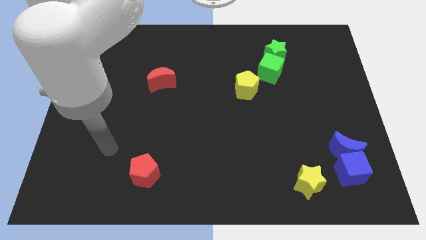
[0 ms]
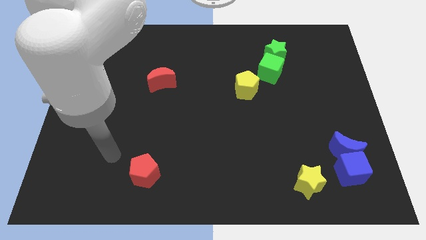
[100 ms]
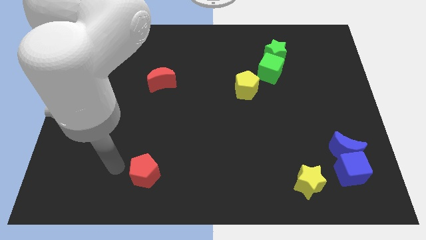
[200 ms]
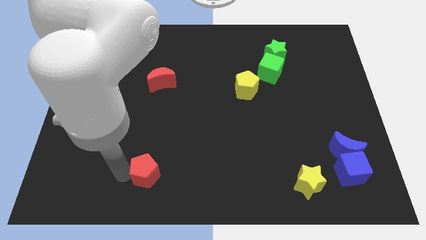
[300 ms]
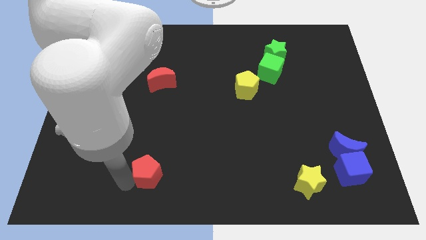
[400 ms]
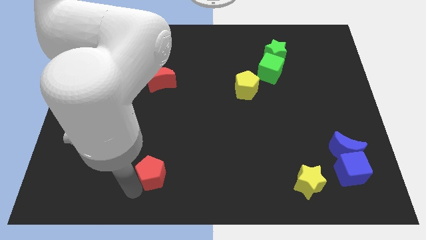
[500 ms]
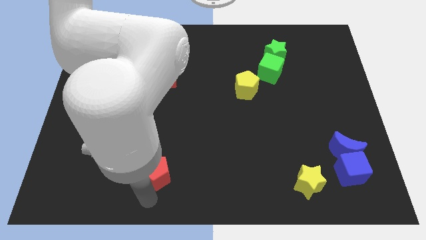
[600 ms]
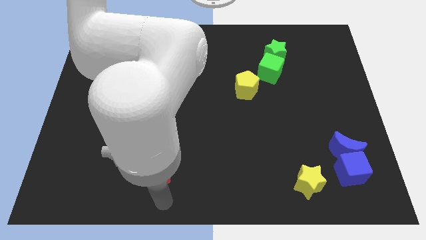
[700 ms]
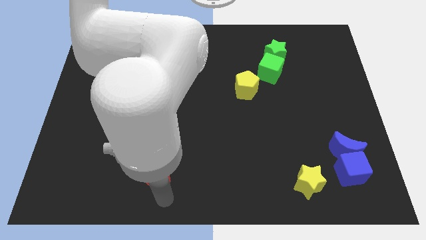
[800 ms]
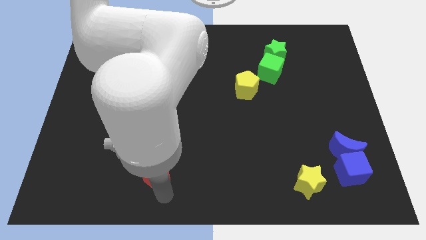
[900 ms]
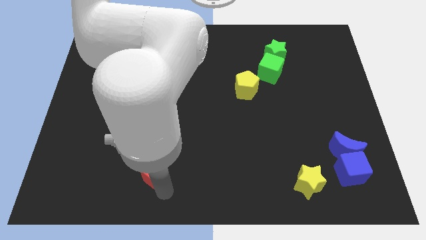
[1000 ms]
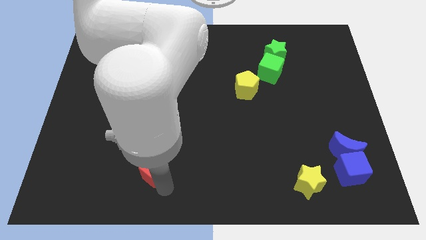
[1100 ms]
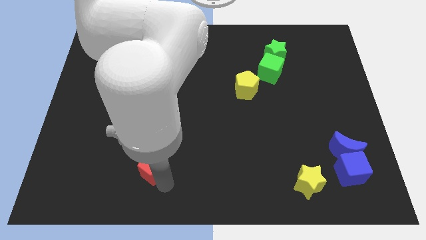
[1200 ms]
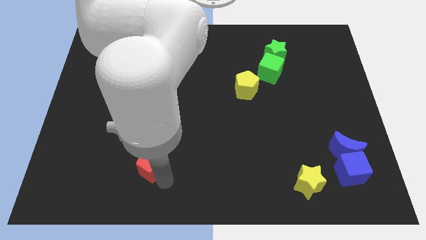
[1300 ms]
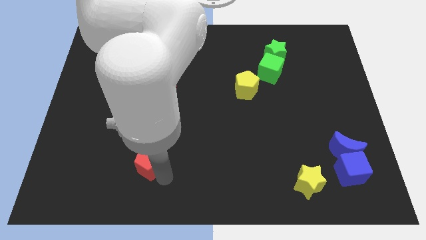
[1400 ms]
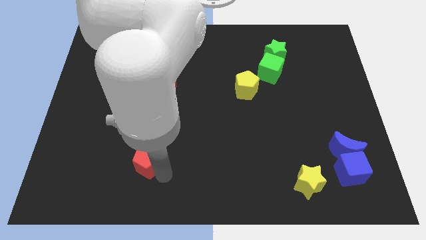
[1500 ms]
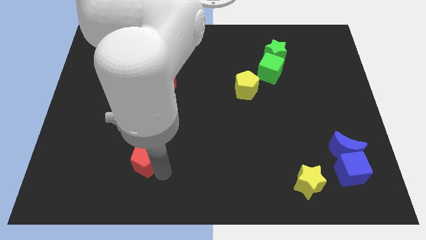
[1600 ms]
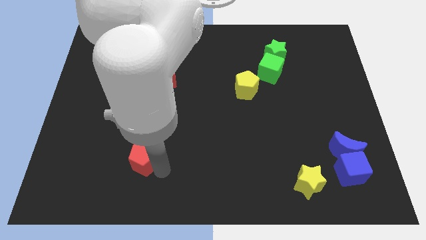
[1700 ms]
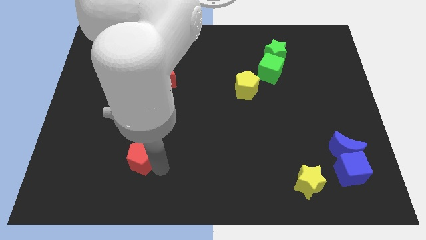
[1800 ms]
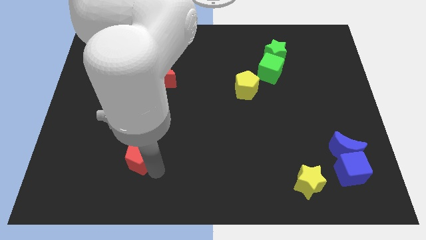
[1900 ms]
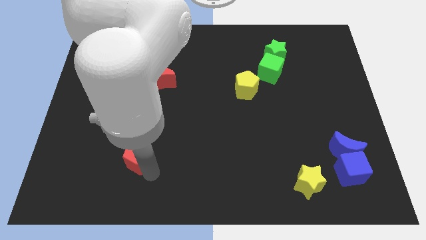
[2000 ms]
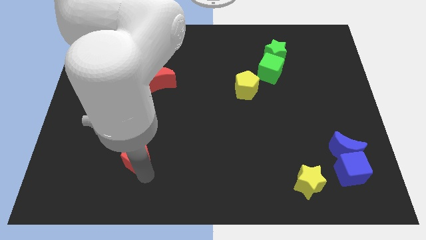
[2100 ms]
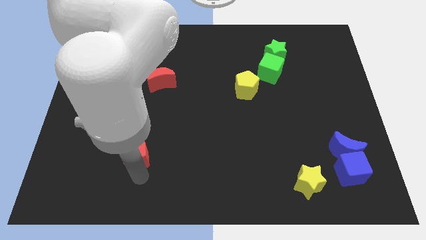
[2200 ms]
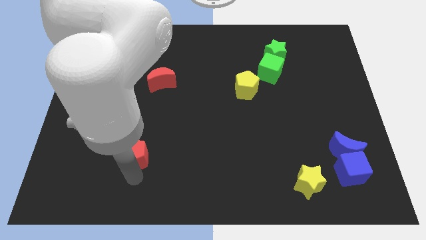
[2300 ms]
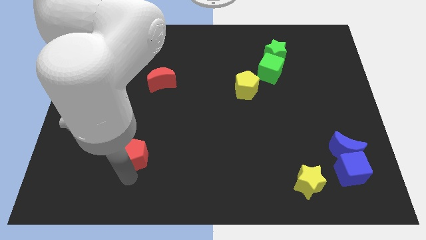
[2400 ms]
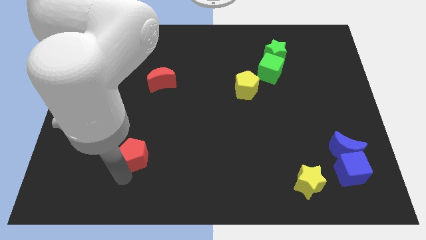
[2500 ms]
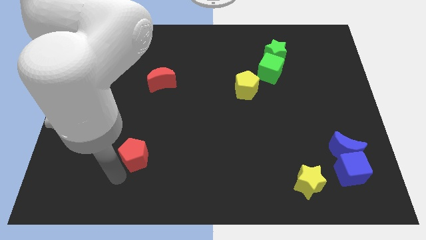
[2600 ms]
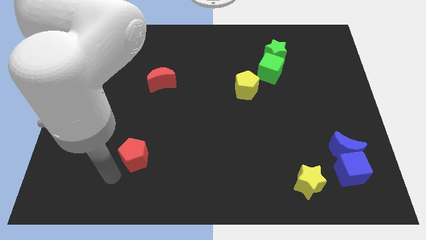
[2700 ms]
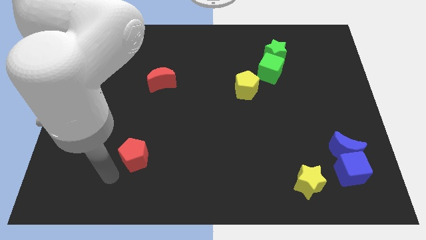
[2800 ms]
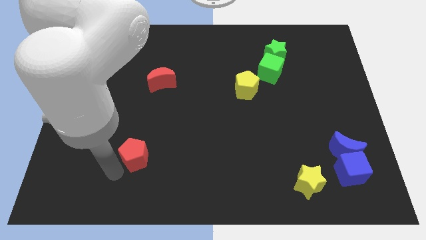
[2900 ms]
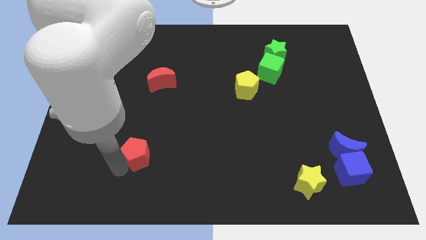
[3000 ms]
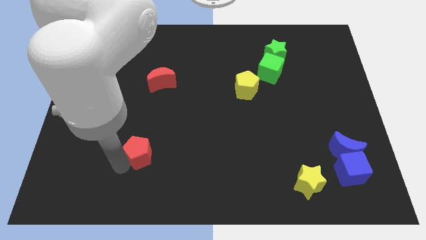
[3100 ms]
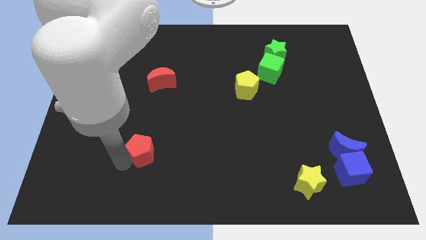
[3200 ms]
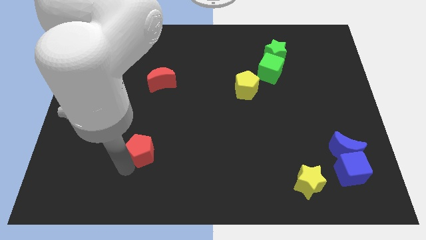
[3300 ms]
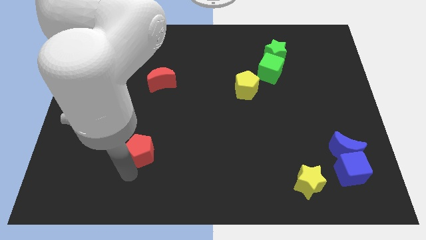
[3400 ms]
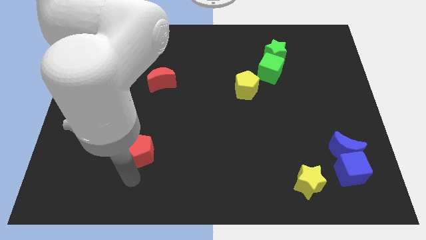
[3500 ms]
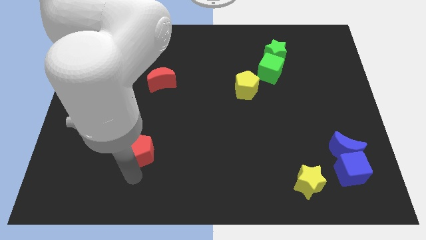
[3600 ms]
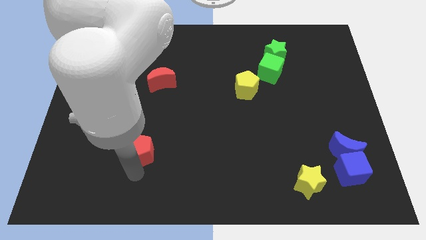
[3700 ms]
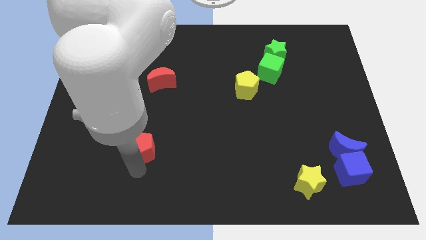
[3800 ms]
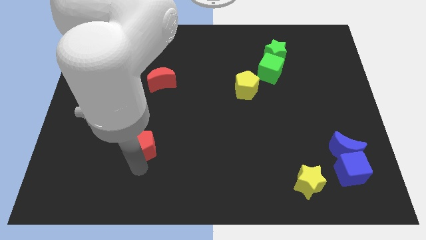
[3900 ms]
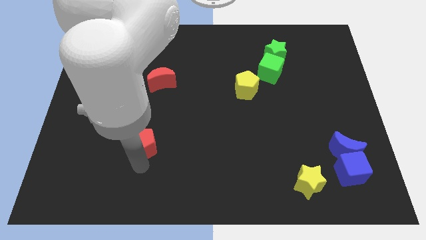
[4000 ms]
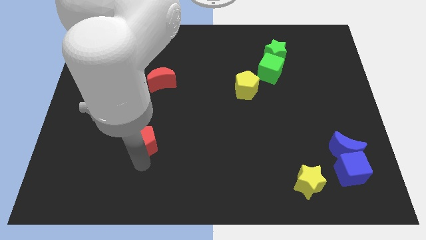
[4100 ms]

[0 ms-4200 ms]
move the red pentagon a little up

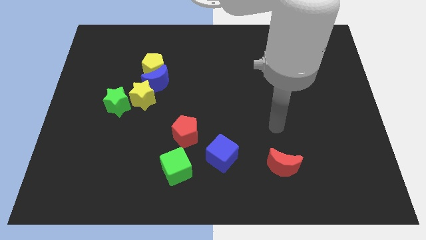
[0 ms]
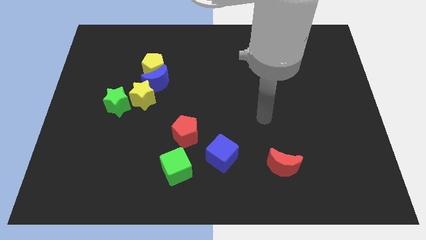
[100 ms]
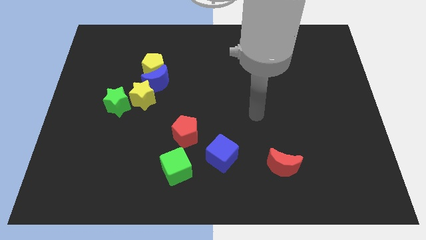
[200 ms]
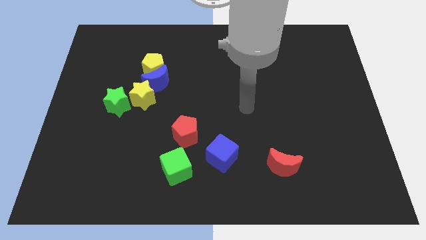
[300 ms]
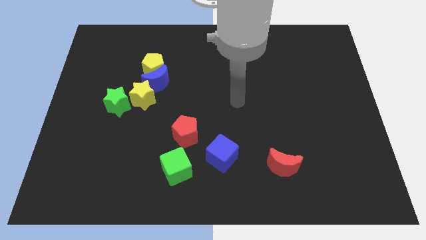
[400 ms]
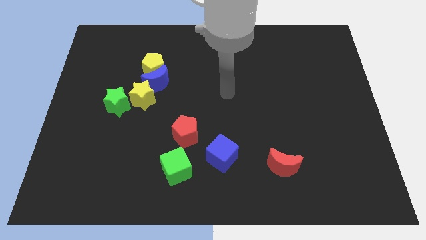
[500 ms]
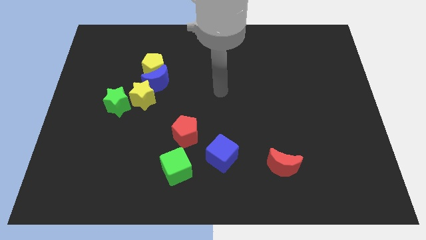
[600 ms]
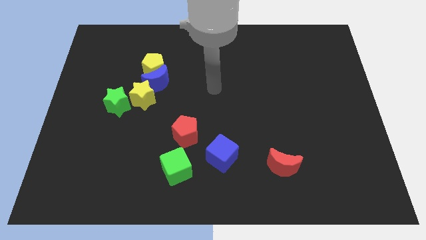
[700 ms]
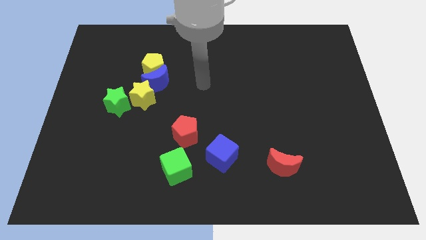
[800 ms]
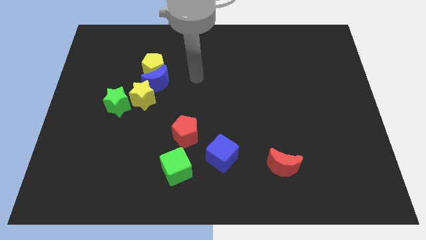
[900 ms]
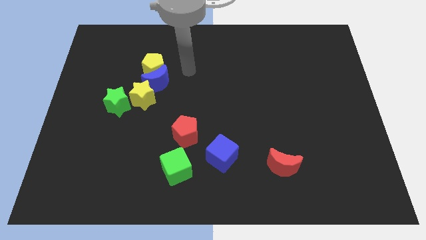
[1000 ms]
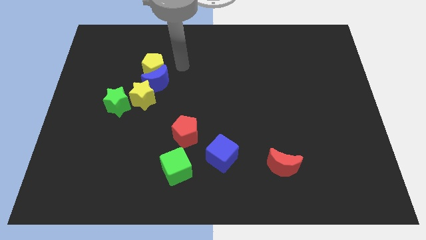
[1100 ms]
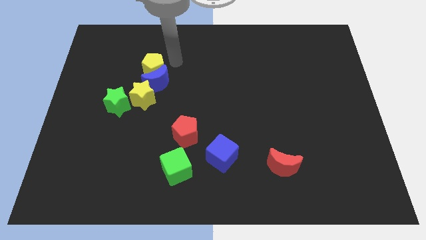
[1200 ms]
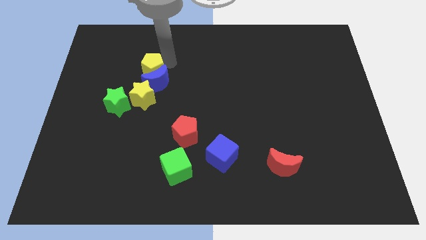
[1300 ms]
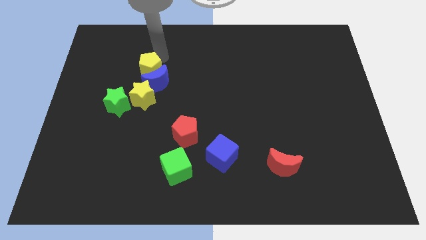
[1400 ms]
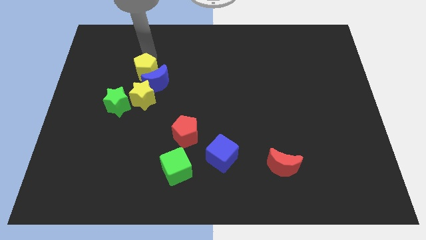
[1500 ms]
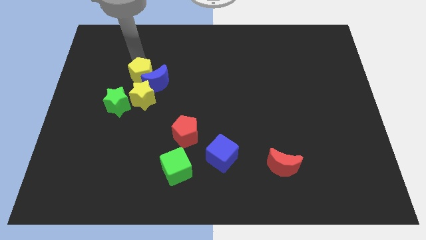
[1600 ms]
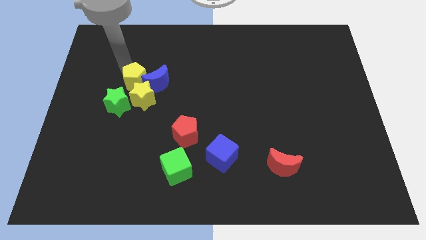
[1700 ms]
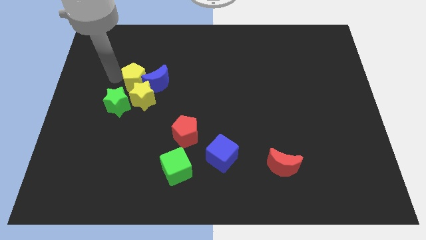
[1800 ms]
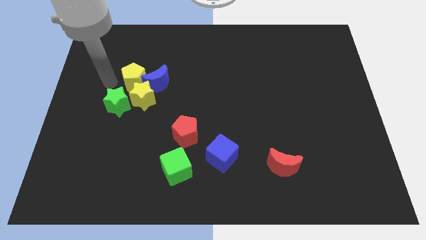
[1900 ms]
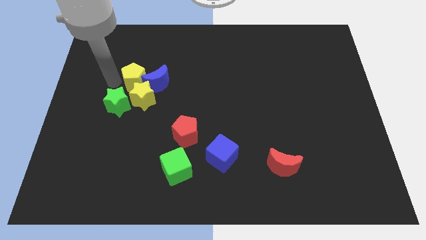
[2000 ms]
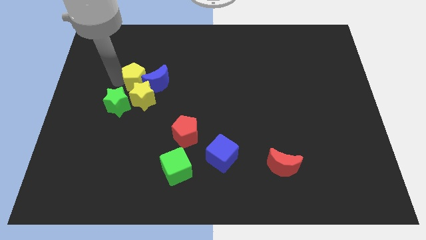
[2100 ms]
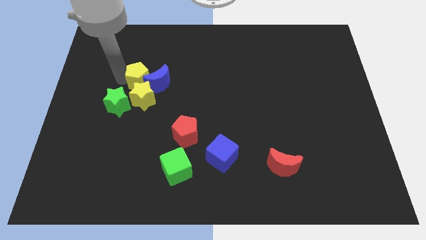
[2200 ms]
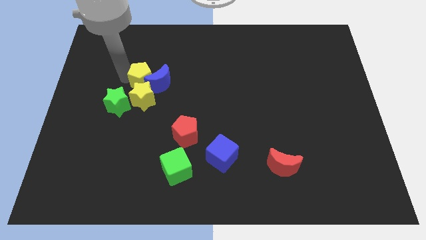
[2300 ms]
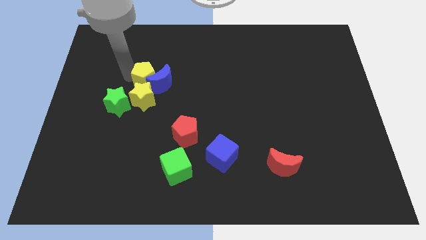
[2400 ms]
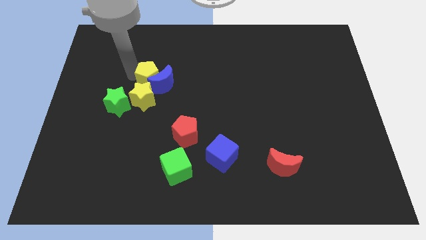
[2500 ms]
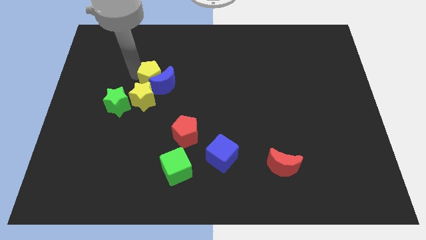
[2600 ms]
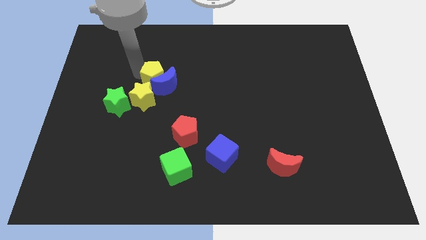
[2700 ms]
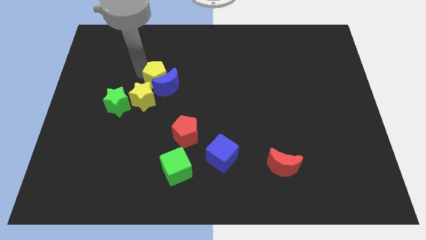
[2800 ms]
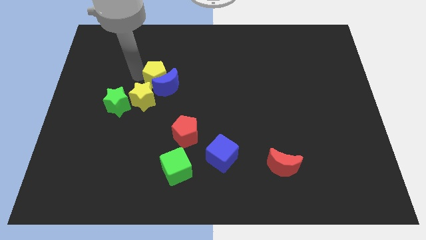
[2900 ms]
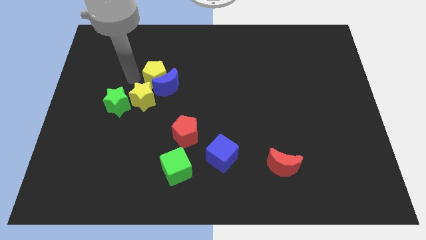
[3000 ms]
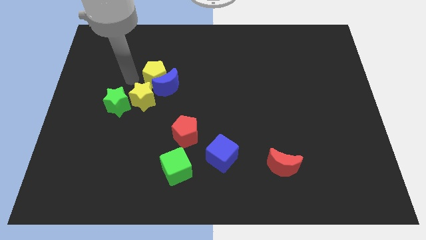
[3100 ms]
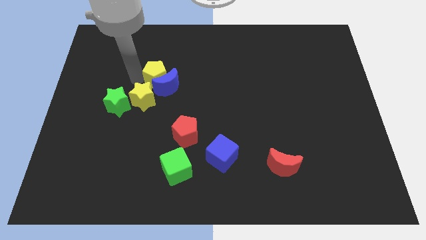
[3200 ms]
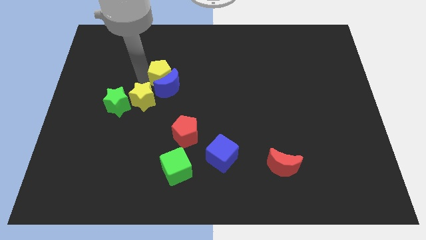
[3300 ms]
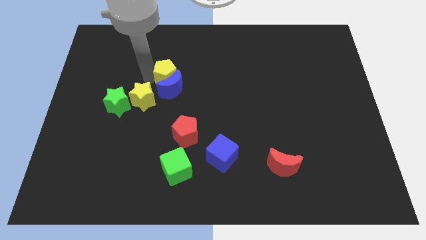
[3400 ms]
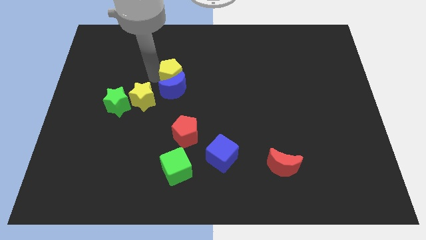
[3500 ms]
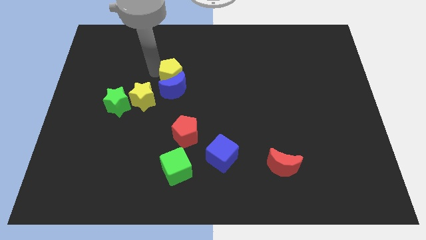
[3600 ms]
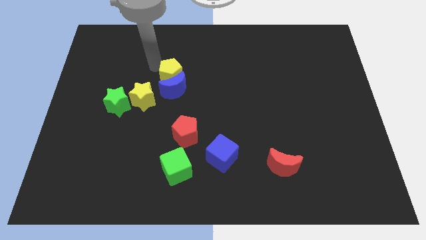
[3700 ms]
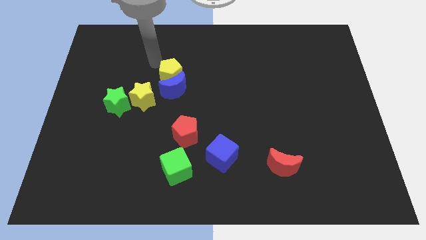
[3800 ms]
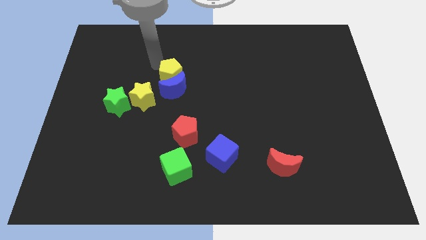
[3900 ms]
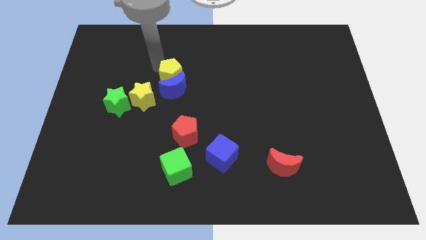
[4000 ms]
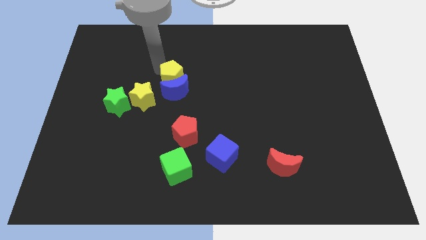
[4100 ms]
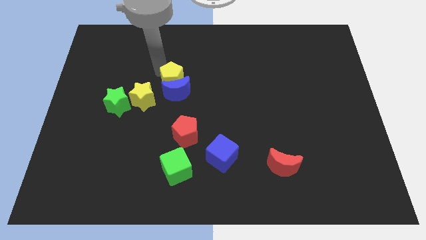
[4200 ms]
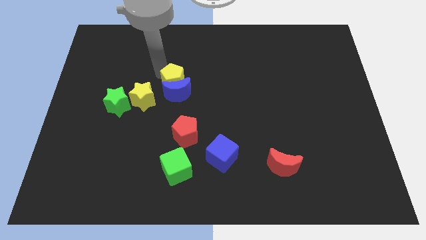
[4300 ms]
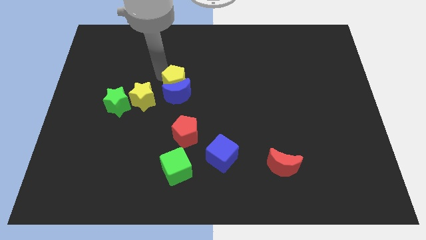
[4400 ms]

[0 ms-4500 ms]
slide the yellow pentagon slightly down and then right
